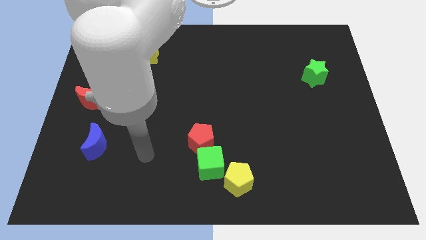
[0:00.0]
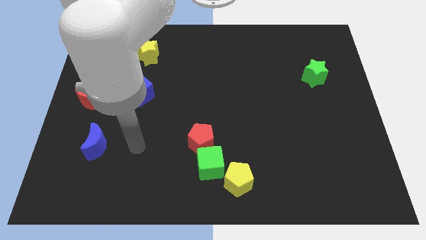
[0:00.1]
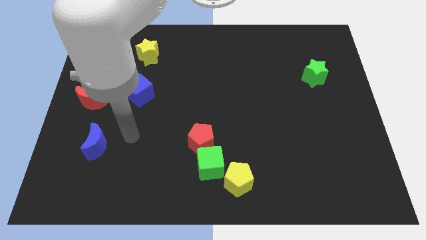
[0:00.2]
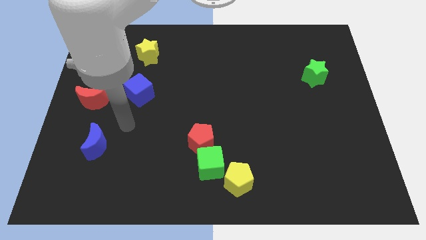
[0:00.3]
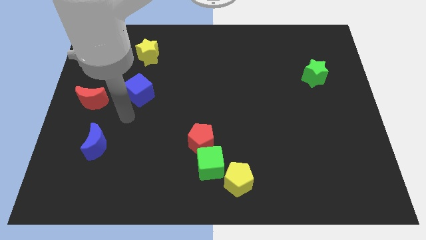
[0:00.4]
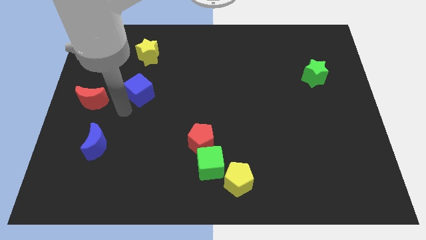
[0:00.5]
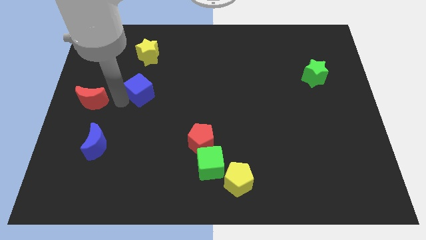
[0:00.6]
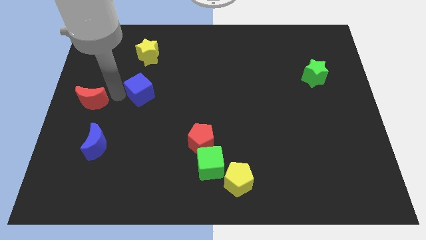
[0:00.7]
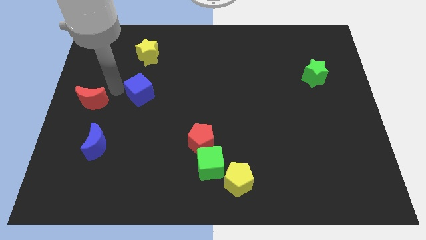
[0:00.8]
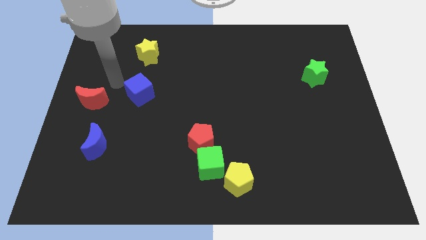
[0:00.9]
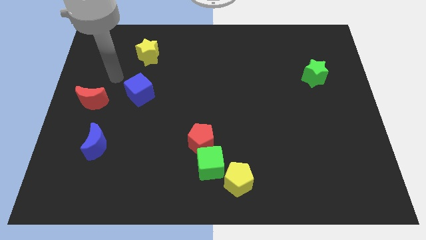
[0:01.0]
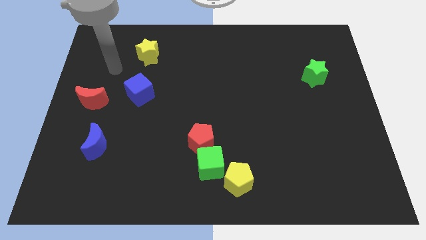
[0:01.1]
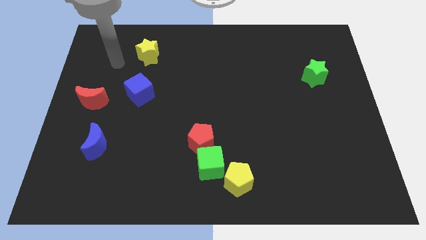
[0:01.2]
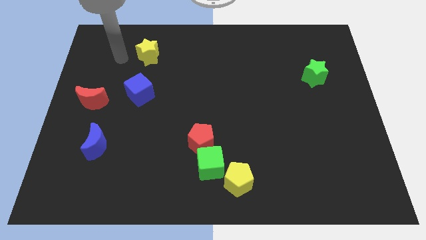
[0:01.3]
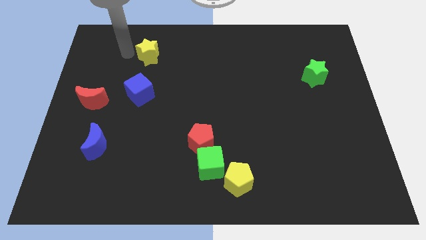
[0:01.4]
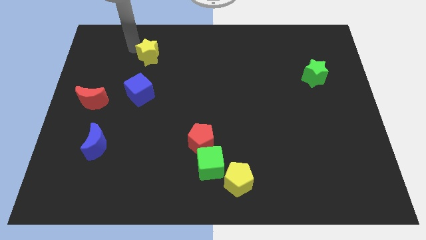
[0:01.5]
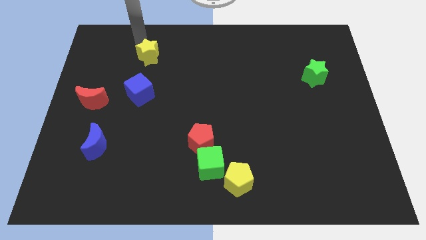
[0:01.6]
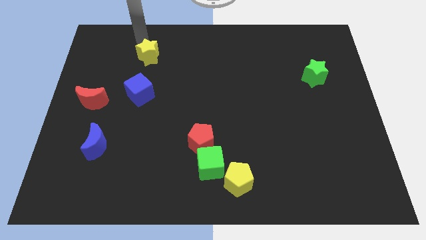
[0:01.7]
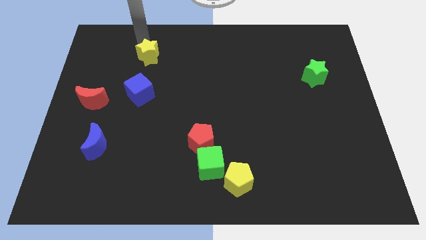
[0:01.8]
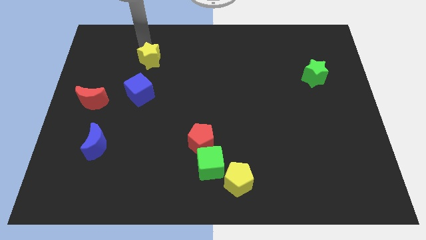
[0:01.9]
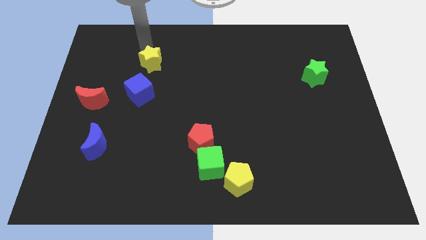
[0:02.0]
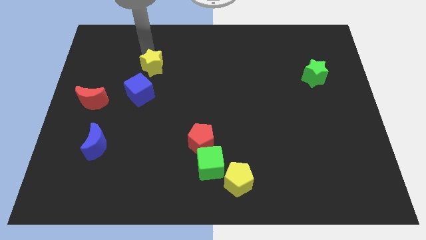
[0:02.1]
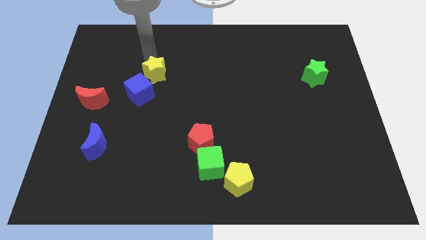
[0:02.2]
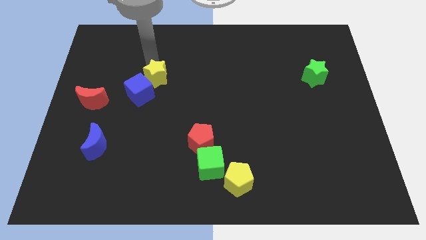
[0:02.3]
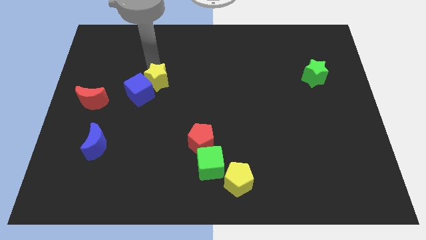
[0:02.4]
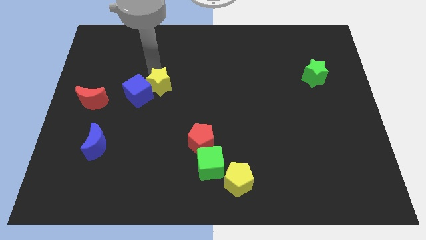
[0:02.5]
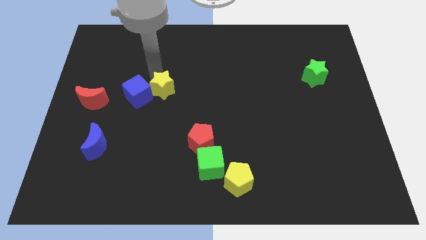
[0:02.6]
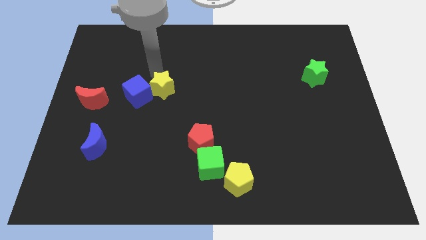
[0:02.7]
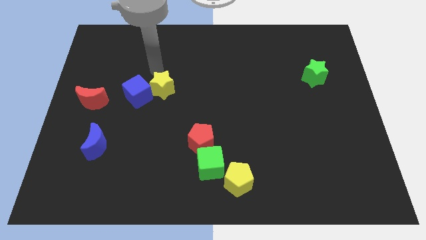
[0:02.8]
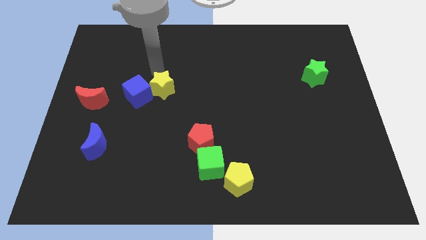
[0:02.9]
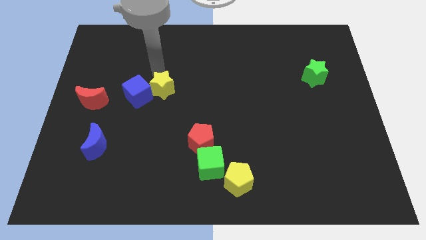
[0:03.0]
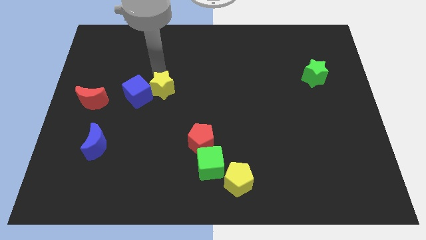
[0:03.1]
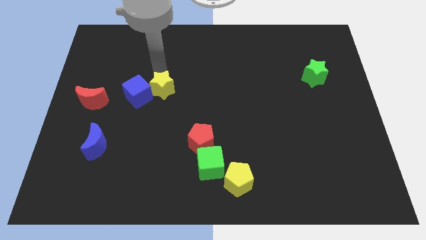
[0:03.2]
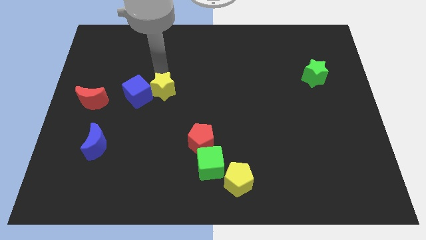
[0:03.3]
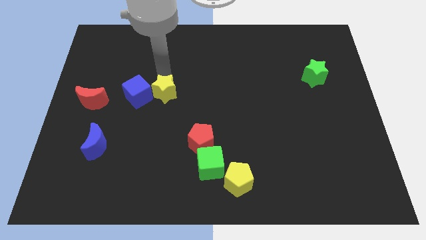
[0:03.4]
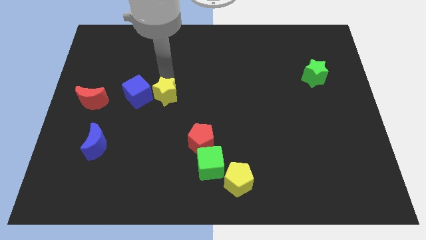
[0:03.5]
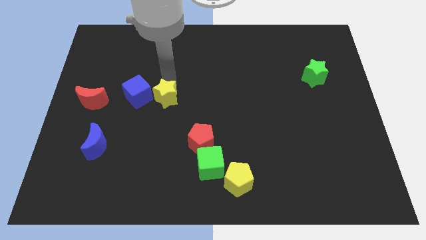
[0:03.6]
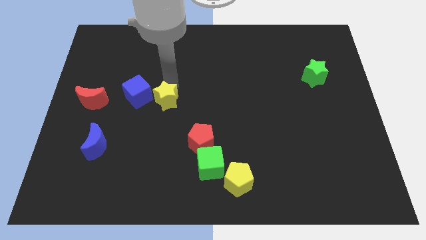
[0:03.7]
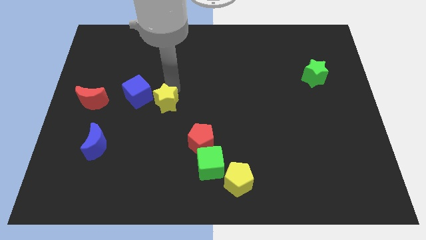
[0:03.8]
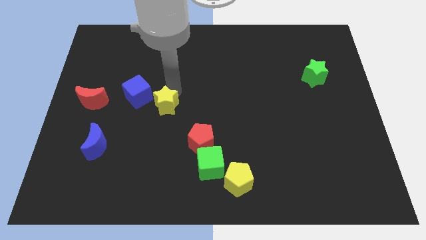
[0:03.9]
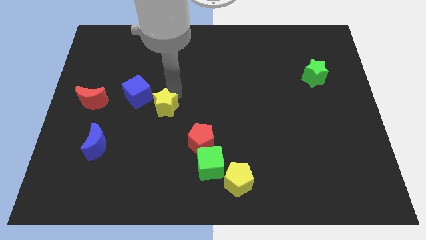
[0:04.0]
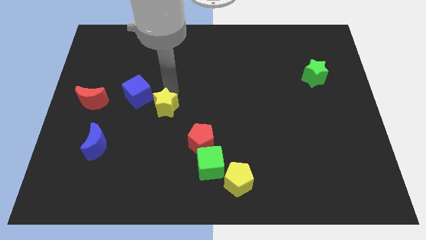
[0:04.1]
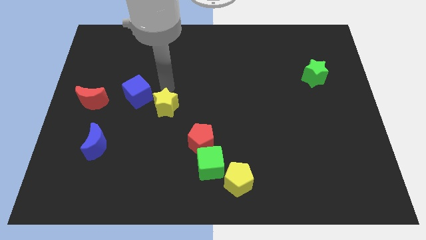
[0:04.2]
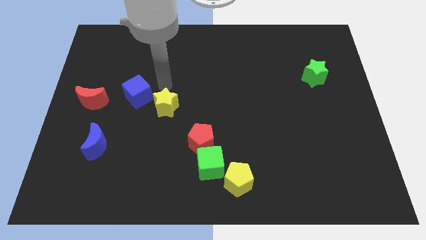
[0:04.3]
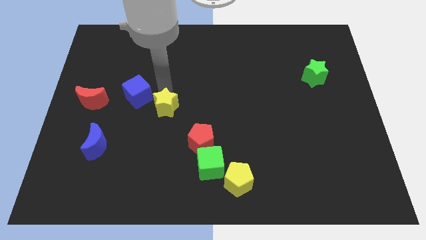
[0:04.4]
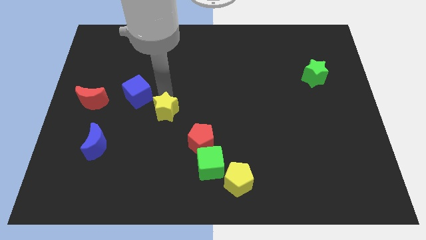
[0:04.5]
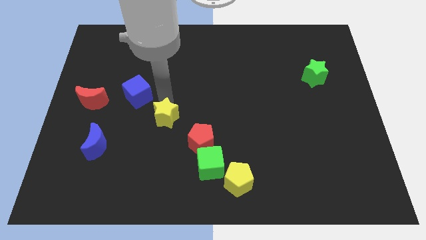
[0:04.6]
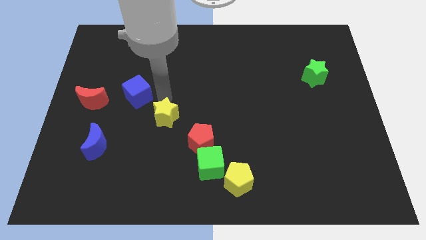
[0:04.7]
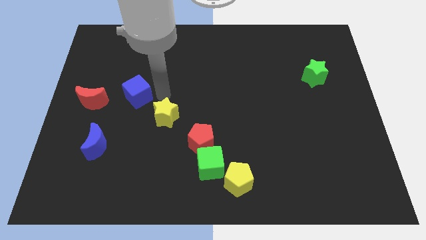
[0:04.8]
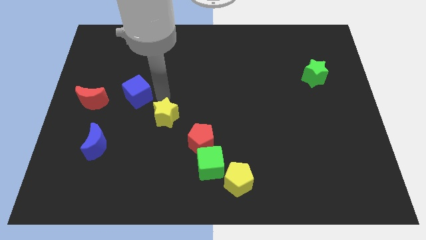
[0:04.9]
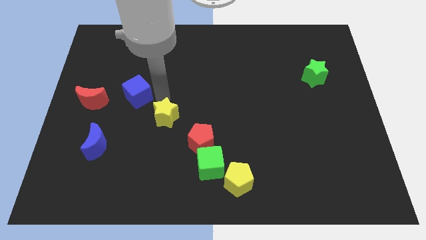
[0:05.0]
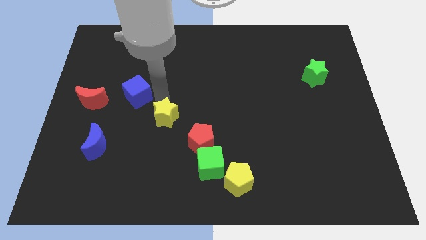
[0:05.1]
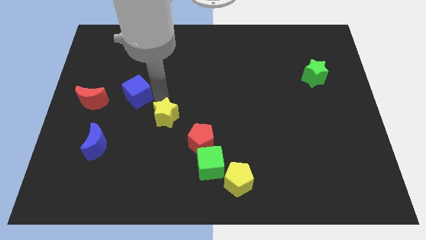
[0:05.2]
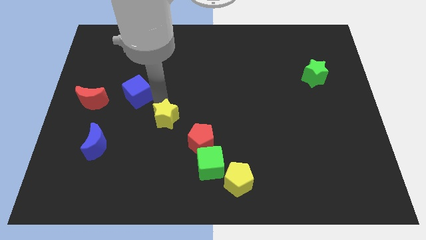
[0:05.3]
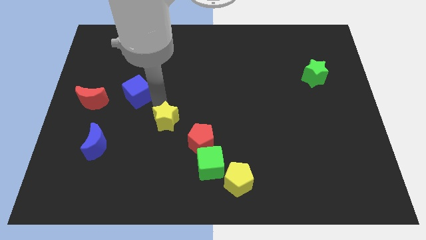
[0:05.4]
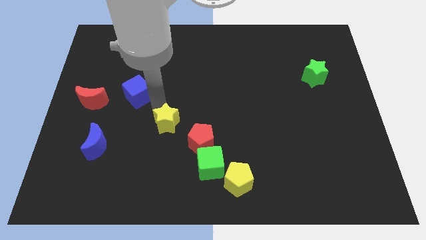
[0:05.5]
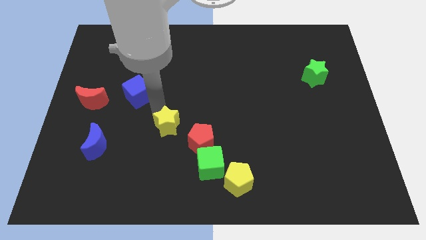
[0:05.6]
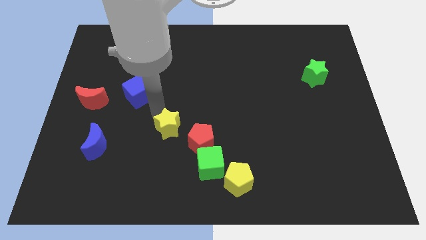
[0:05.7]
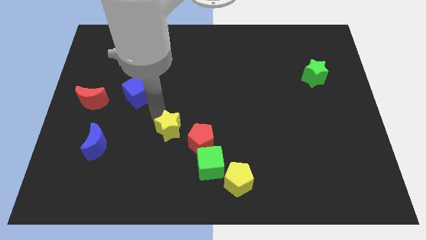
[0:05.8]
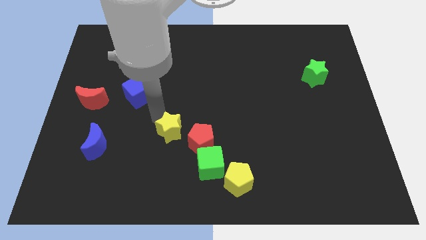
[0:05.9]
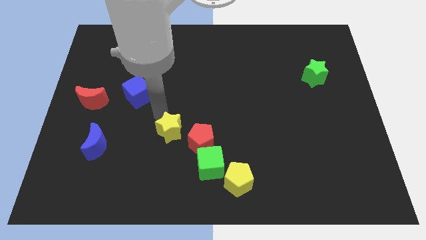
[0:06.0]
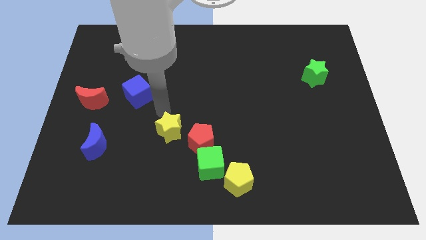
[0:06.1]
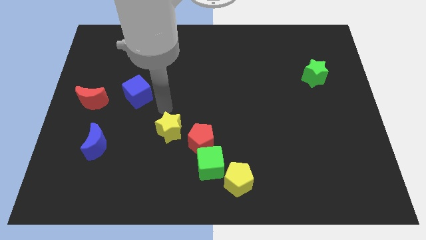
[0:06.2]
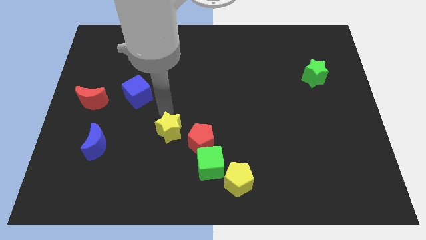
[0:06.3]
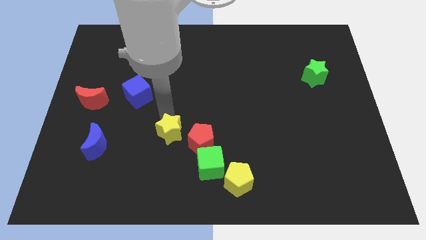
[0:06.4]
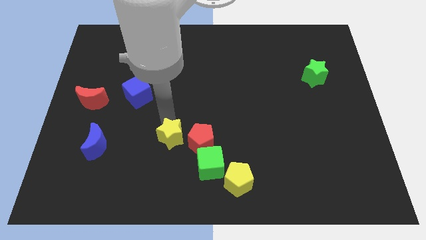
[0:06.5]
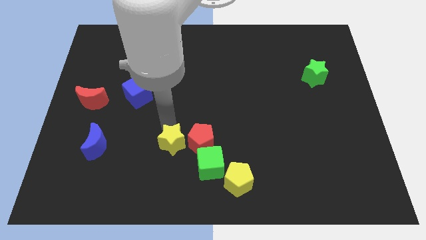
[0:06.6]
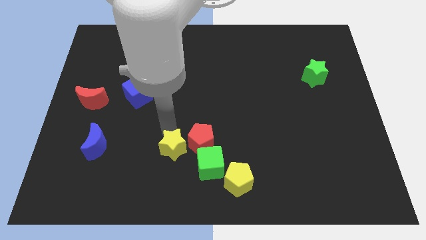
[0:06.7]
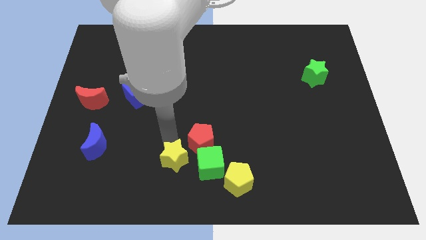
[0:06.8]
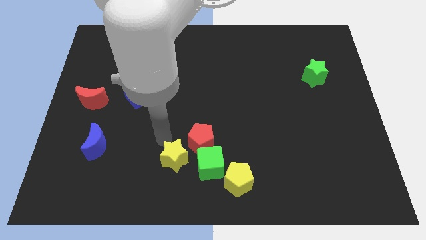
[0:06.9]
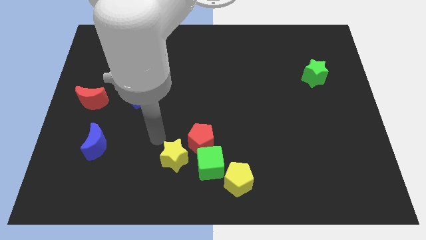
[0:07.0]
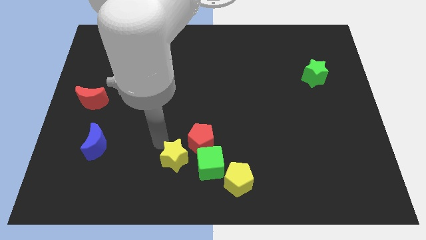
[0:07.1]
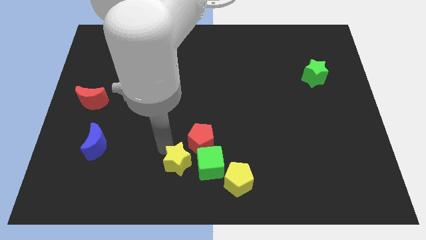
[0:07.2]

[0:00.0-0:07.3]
put the yellow star to the bottom
